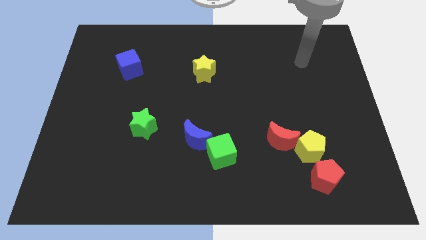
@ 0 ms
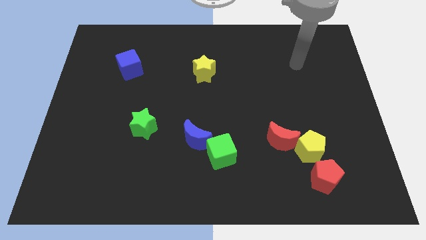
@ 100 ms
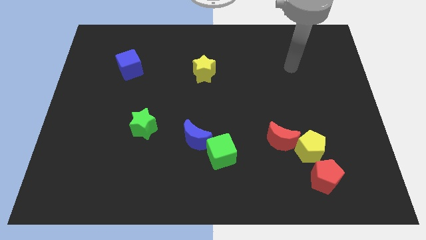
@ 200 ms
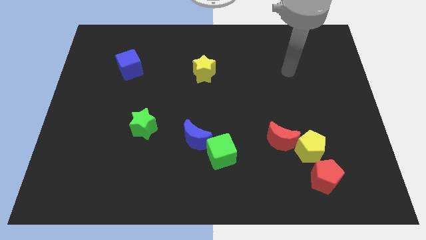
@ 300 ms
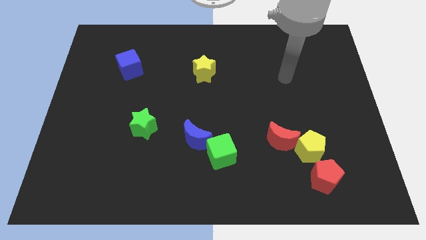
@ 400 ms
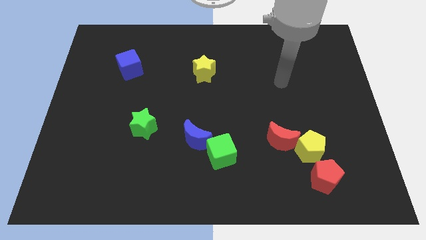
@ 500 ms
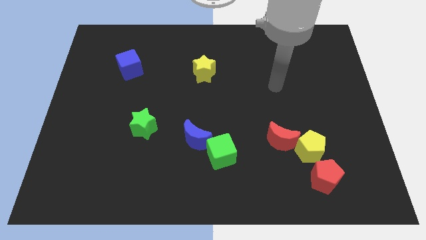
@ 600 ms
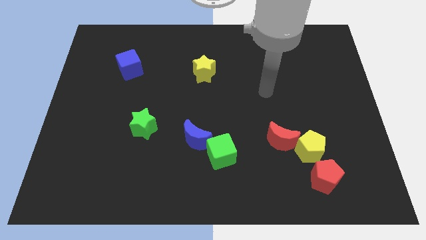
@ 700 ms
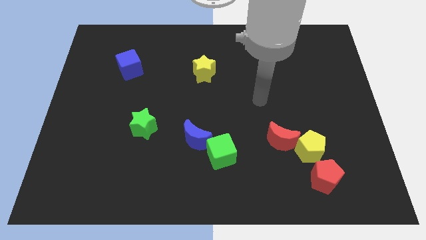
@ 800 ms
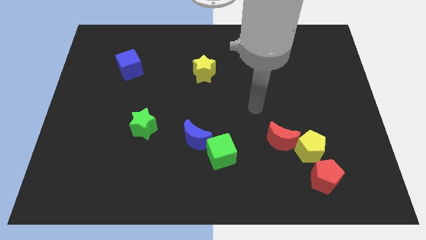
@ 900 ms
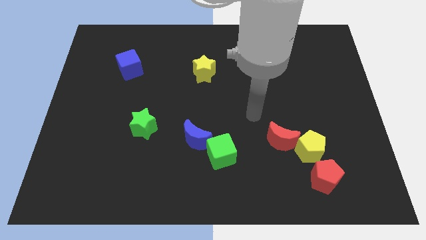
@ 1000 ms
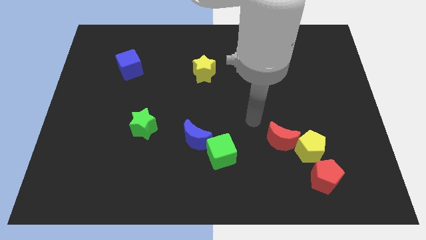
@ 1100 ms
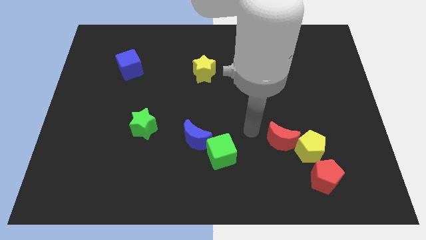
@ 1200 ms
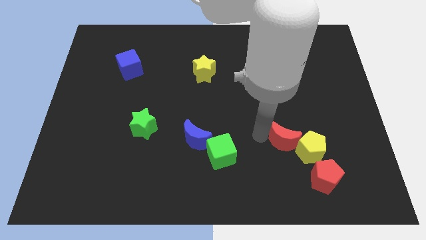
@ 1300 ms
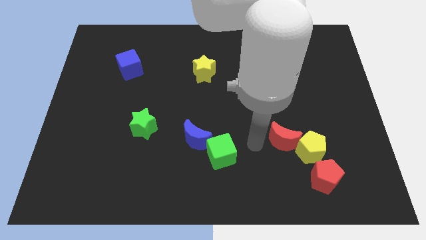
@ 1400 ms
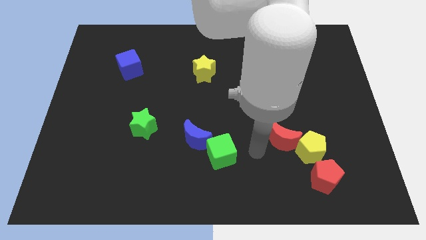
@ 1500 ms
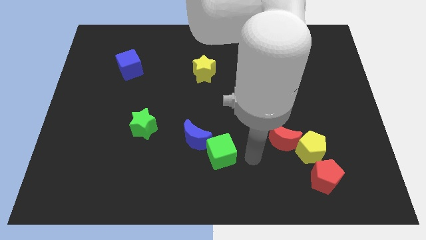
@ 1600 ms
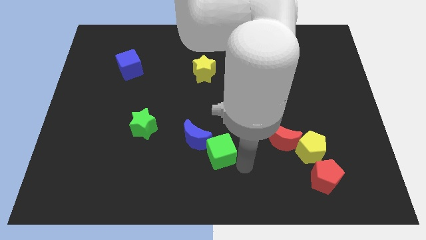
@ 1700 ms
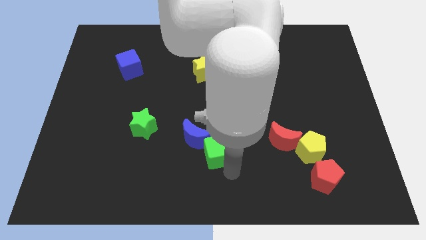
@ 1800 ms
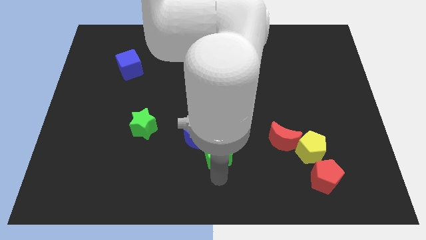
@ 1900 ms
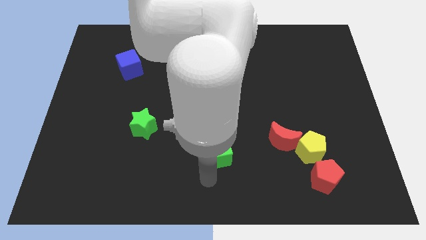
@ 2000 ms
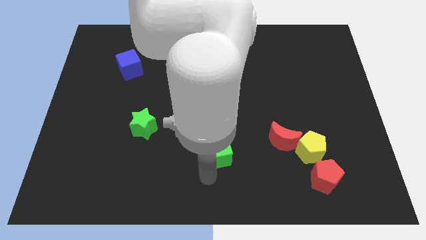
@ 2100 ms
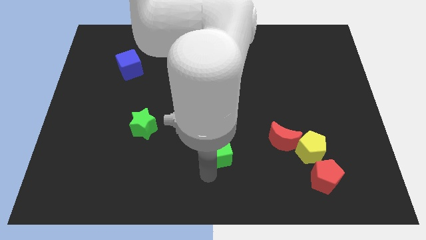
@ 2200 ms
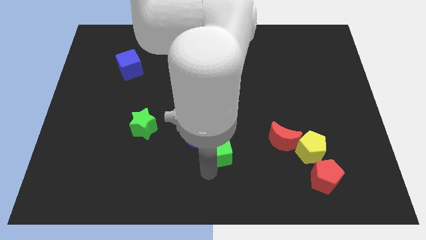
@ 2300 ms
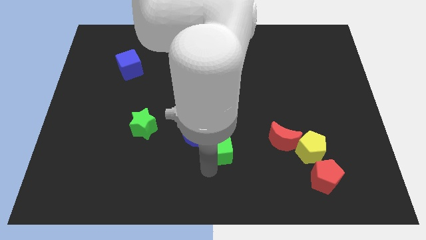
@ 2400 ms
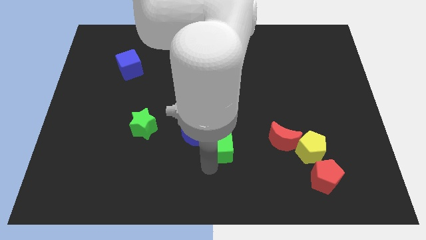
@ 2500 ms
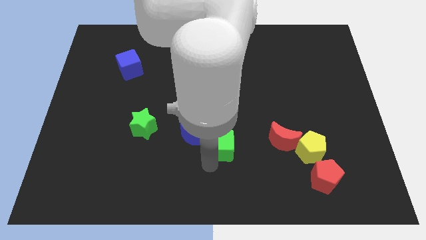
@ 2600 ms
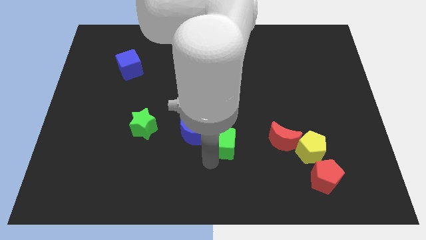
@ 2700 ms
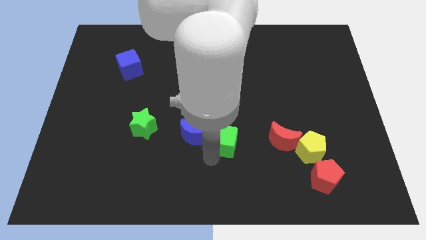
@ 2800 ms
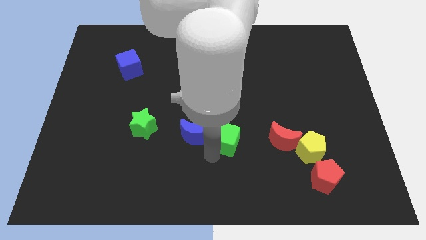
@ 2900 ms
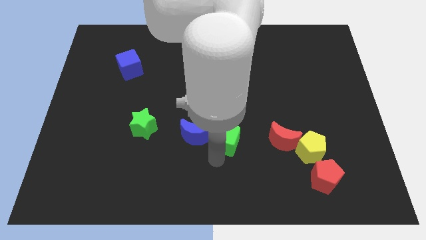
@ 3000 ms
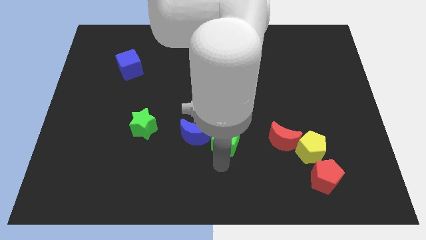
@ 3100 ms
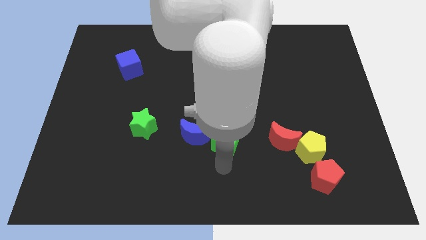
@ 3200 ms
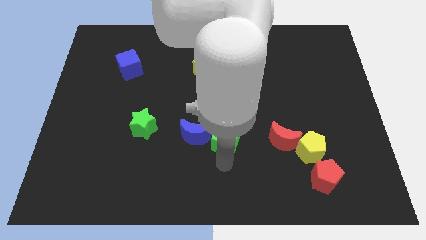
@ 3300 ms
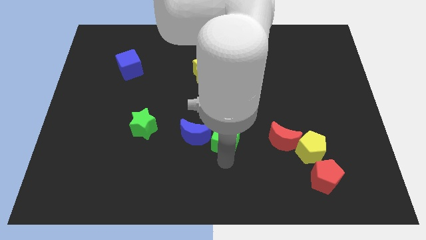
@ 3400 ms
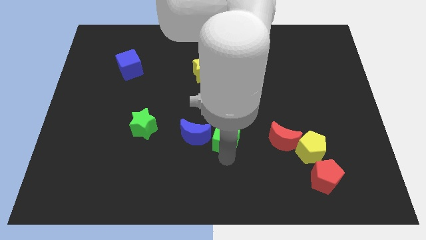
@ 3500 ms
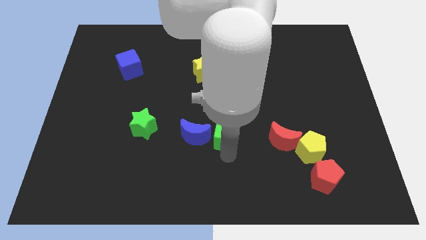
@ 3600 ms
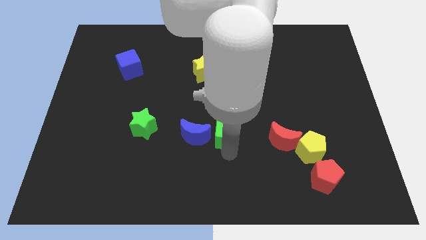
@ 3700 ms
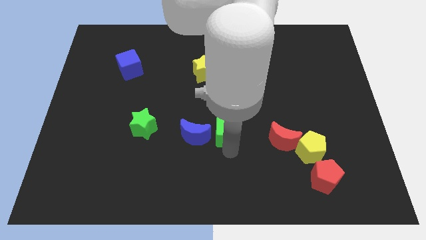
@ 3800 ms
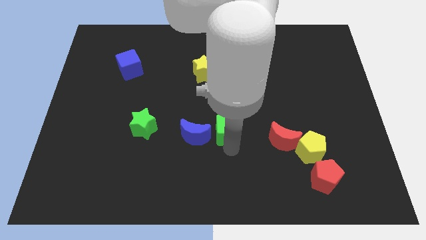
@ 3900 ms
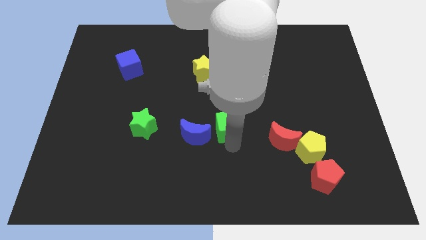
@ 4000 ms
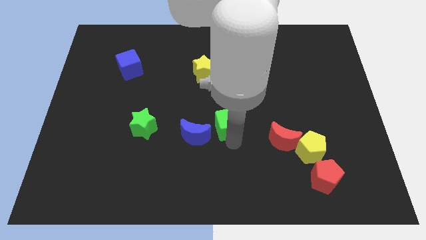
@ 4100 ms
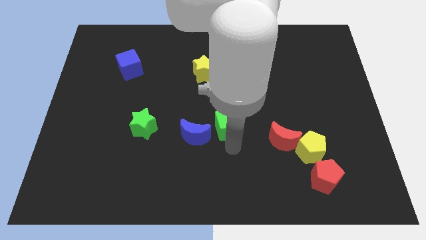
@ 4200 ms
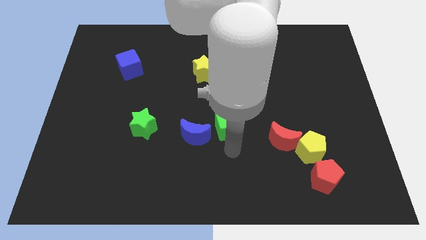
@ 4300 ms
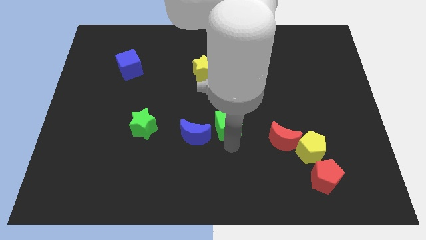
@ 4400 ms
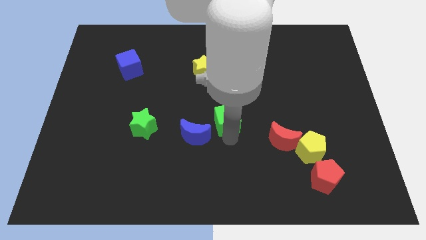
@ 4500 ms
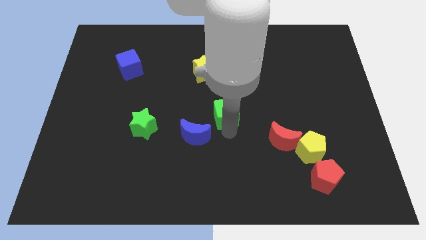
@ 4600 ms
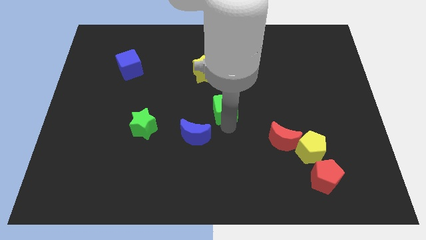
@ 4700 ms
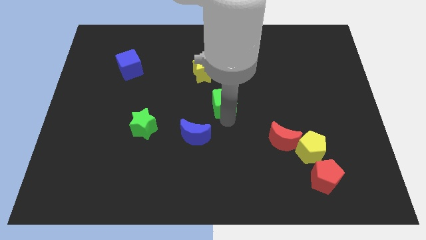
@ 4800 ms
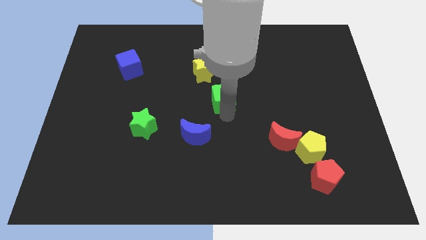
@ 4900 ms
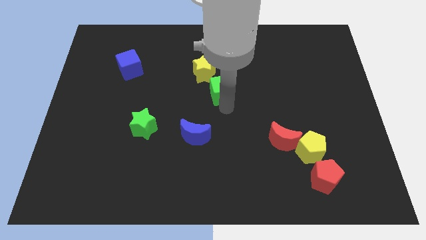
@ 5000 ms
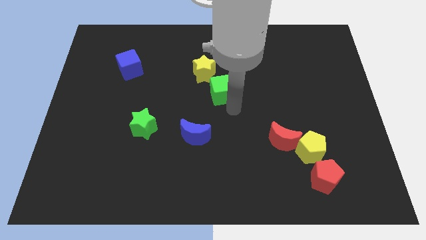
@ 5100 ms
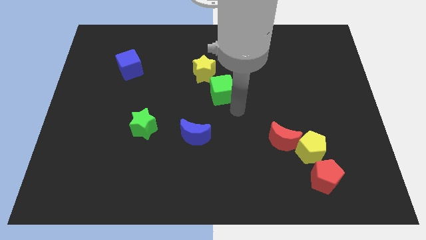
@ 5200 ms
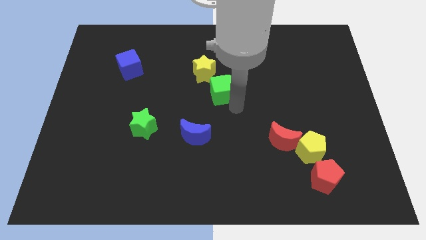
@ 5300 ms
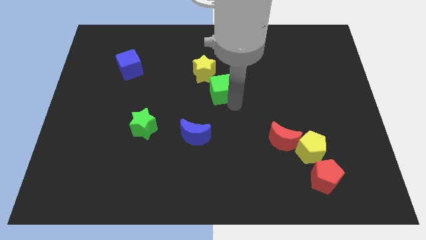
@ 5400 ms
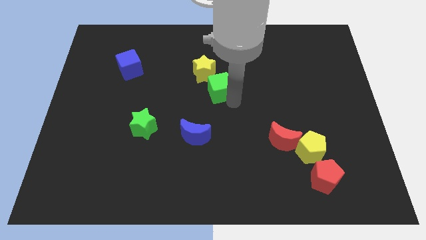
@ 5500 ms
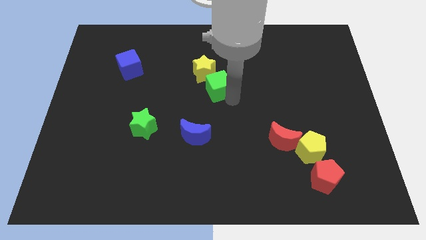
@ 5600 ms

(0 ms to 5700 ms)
slide the green cube next to the yellow star

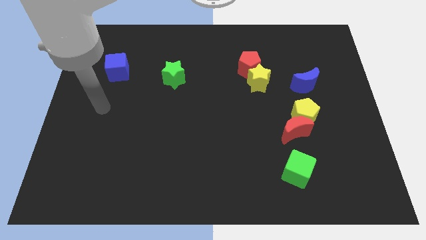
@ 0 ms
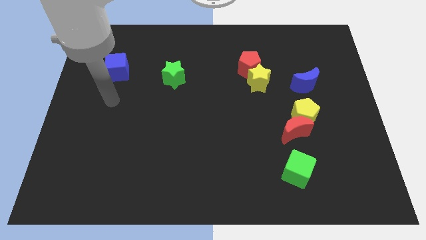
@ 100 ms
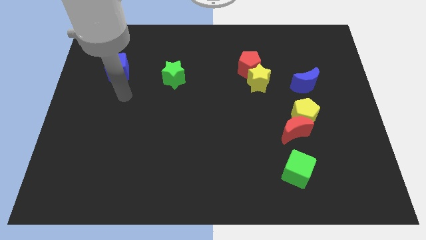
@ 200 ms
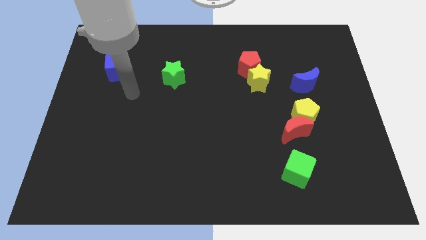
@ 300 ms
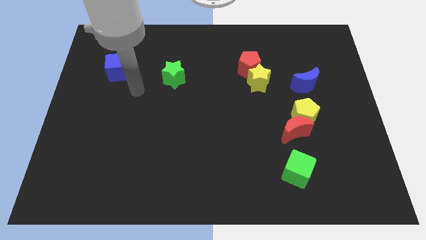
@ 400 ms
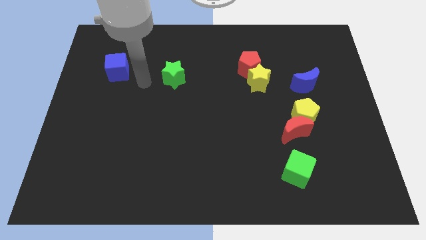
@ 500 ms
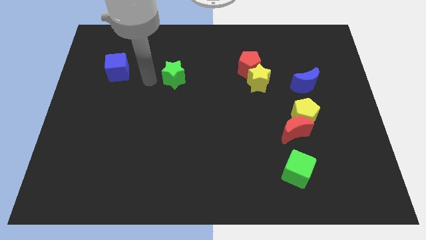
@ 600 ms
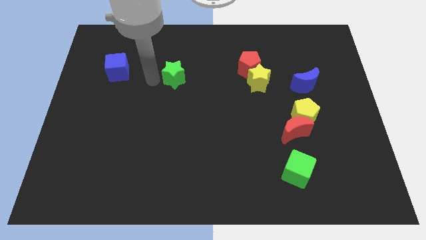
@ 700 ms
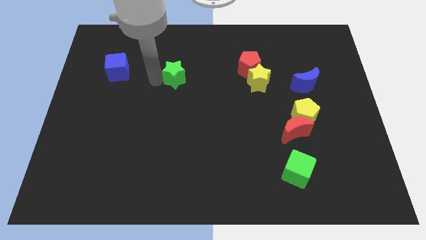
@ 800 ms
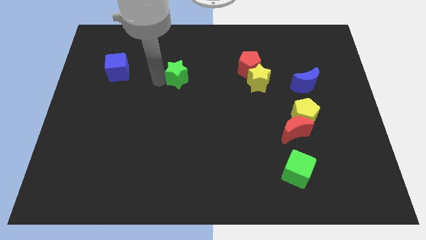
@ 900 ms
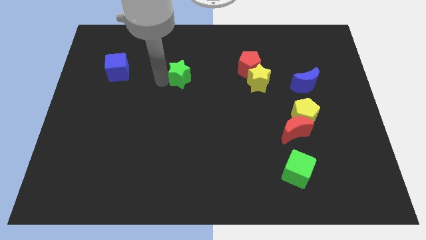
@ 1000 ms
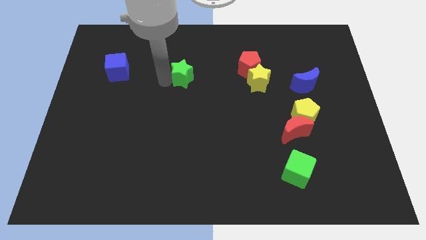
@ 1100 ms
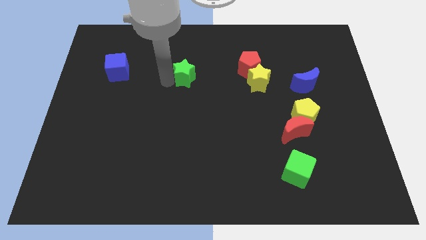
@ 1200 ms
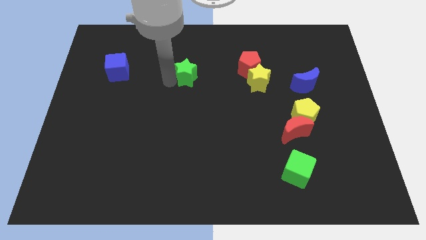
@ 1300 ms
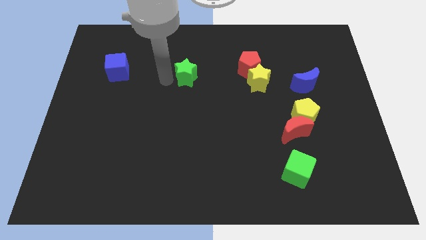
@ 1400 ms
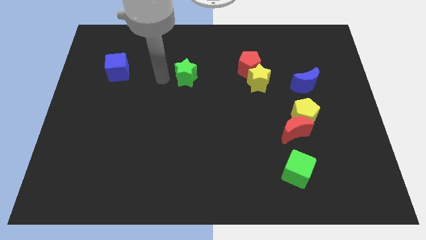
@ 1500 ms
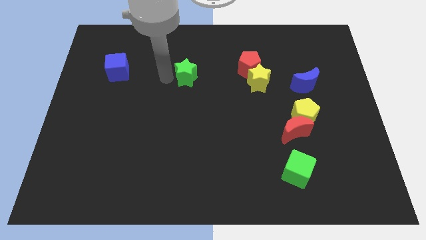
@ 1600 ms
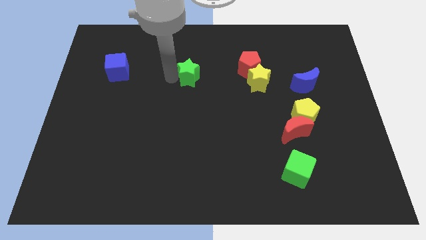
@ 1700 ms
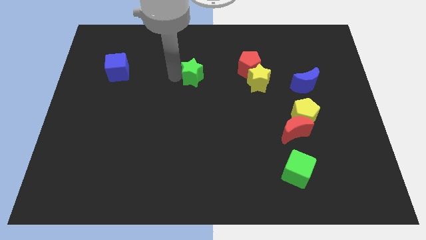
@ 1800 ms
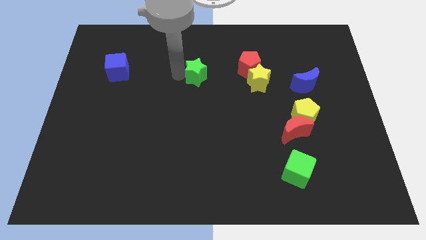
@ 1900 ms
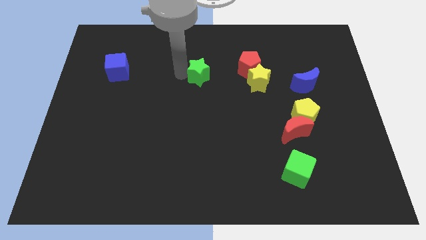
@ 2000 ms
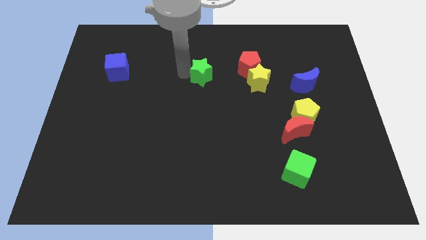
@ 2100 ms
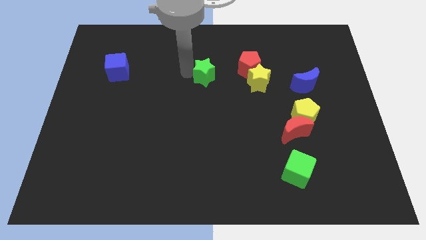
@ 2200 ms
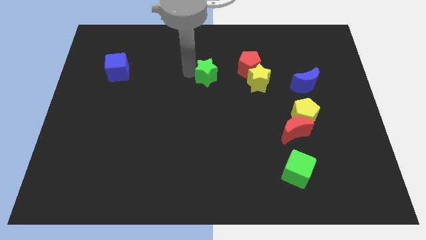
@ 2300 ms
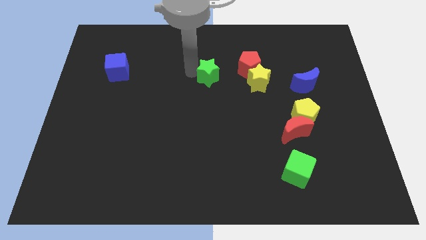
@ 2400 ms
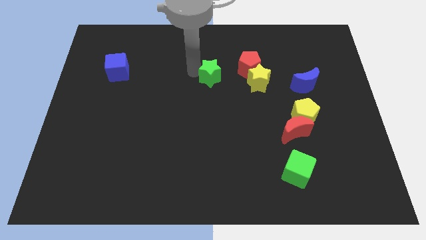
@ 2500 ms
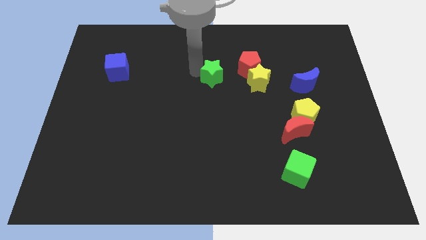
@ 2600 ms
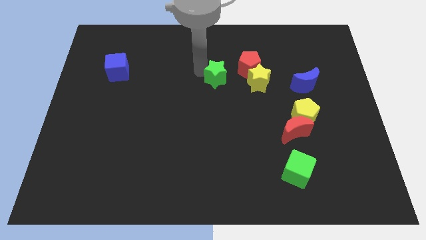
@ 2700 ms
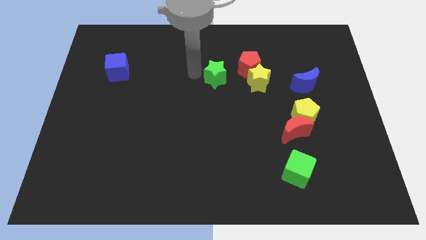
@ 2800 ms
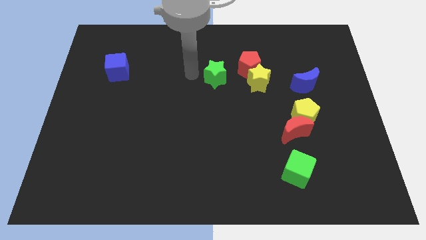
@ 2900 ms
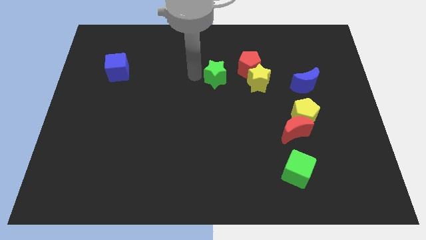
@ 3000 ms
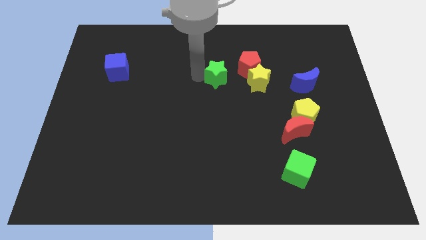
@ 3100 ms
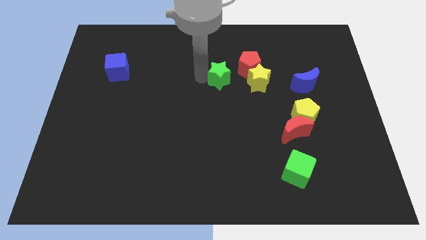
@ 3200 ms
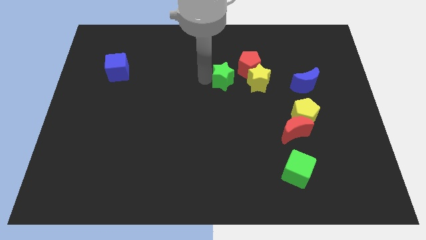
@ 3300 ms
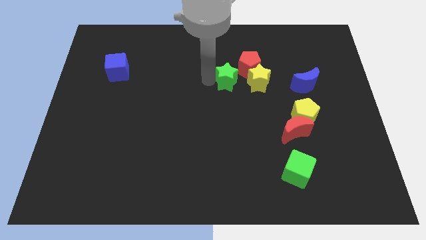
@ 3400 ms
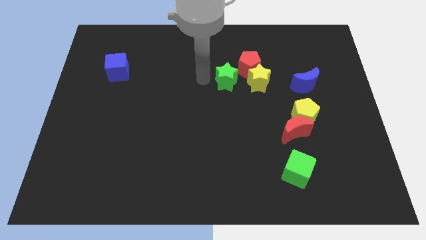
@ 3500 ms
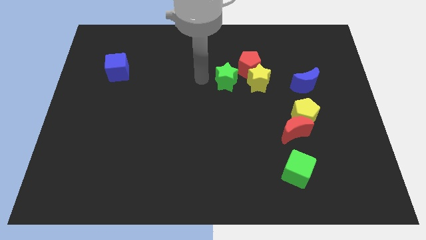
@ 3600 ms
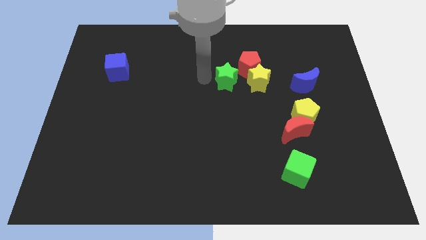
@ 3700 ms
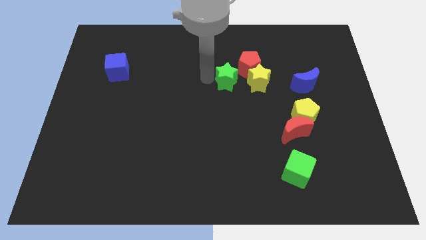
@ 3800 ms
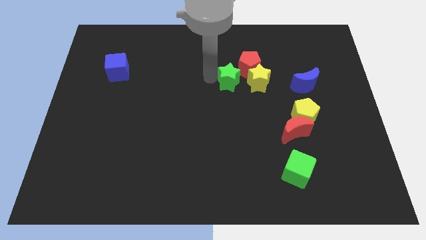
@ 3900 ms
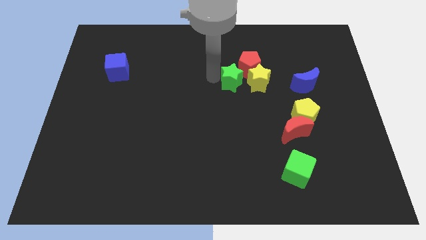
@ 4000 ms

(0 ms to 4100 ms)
slide the green star next to the yellow star
